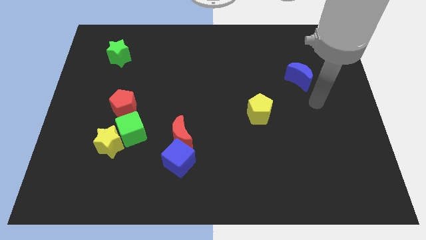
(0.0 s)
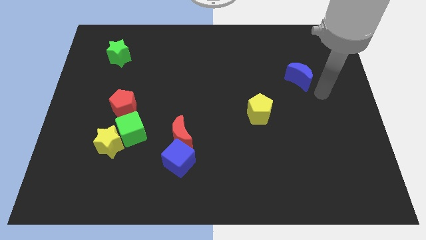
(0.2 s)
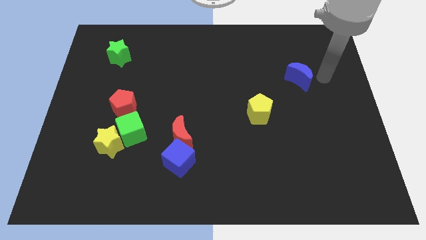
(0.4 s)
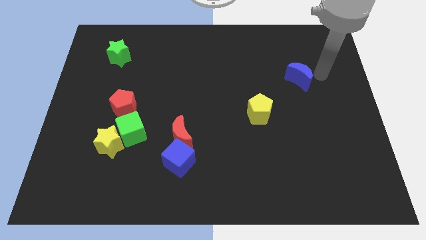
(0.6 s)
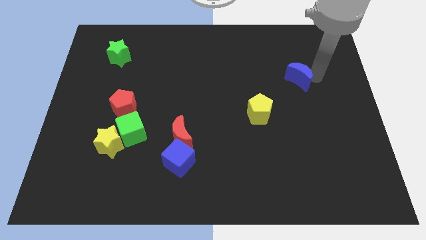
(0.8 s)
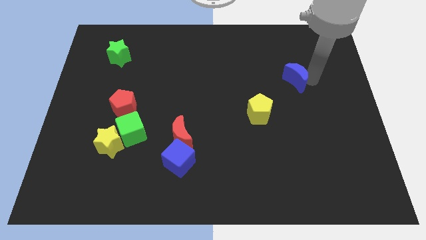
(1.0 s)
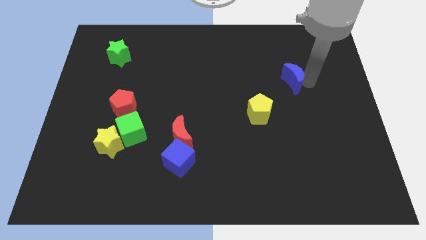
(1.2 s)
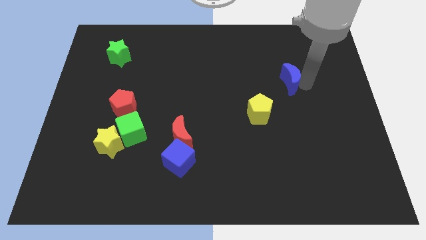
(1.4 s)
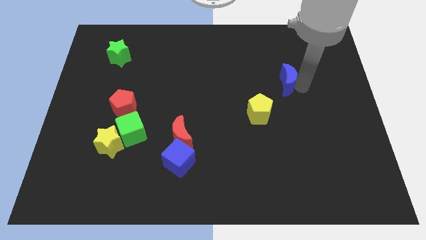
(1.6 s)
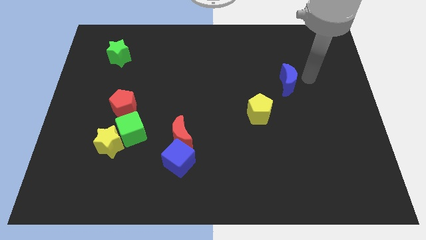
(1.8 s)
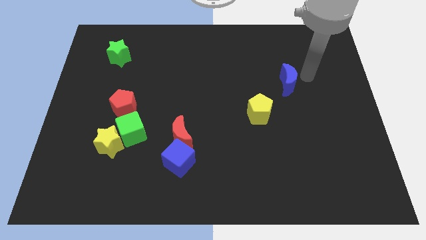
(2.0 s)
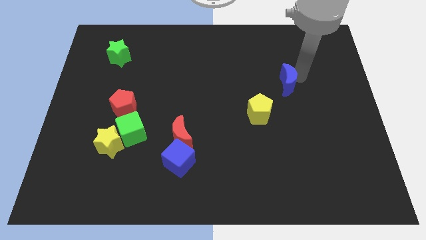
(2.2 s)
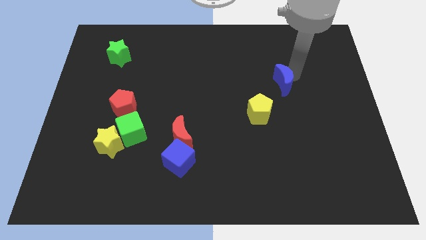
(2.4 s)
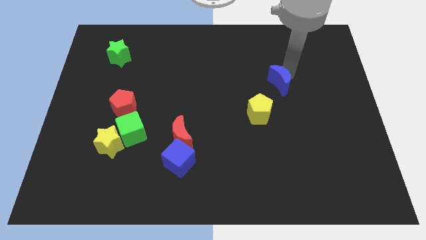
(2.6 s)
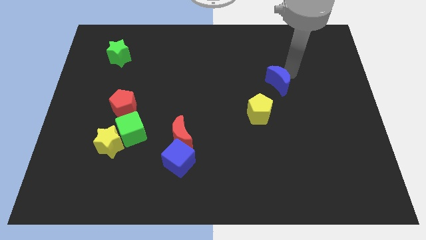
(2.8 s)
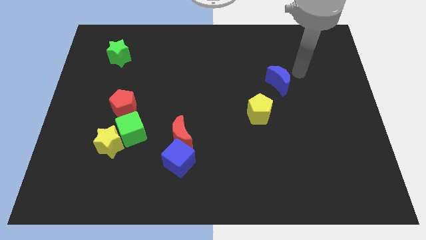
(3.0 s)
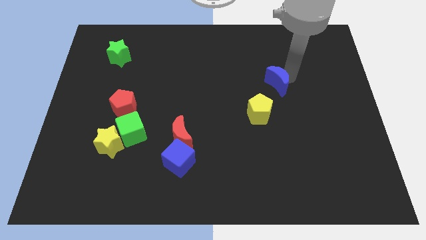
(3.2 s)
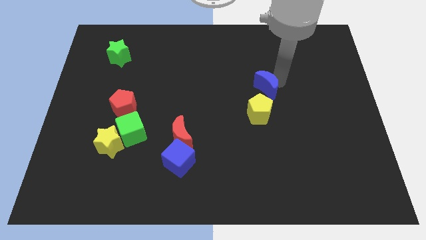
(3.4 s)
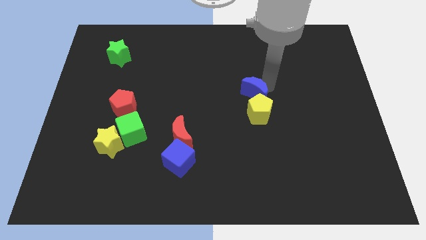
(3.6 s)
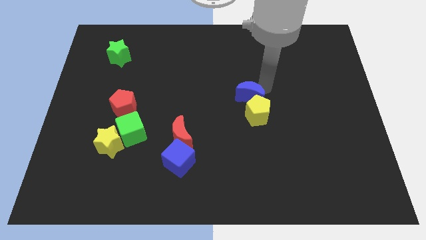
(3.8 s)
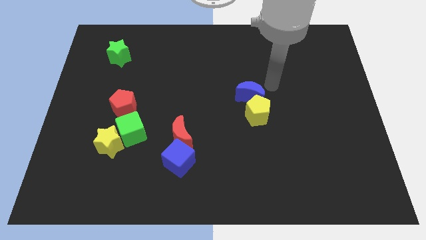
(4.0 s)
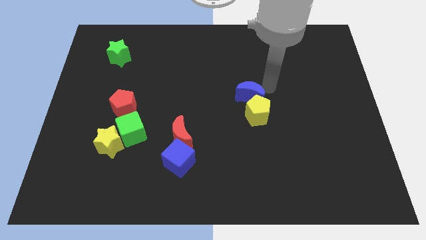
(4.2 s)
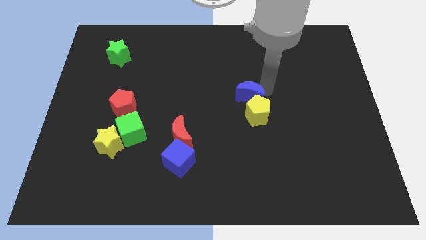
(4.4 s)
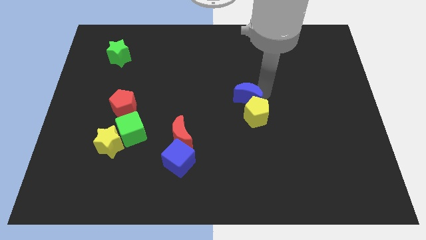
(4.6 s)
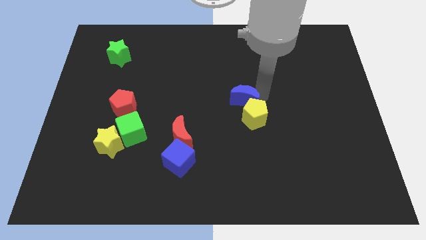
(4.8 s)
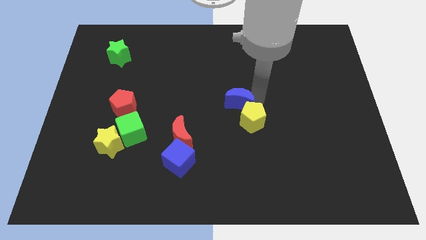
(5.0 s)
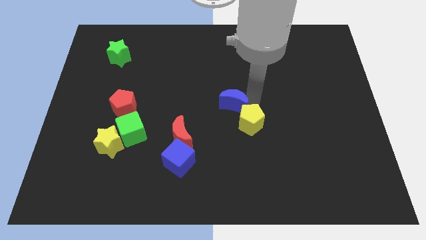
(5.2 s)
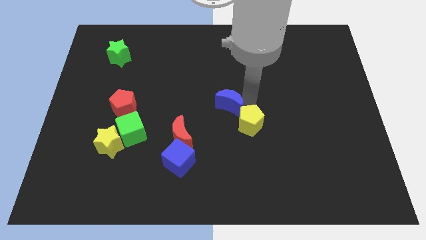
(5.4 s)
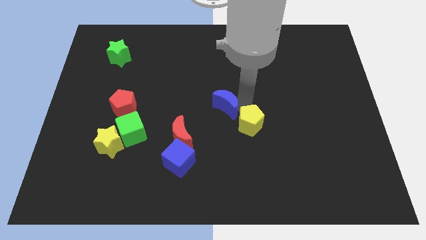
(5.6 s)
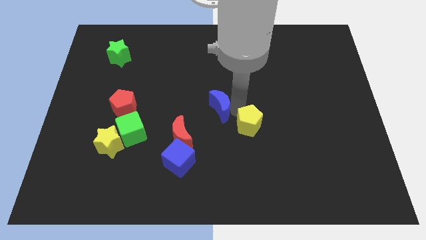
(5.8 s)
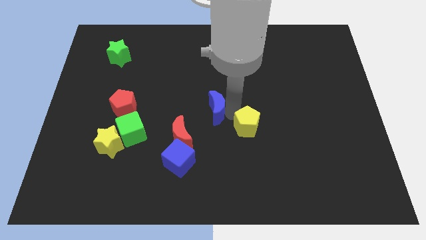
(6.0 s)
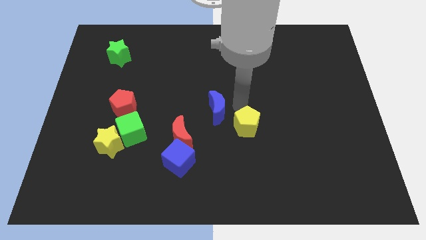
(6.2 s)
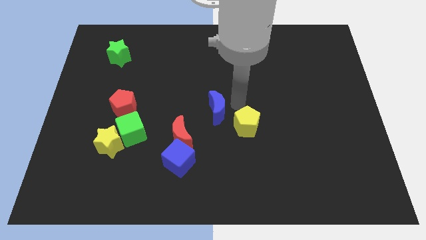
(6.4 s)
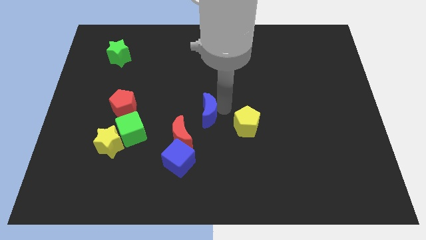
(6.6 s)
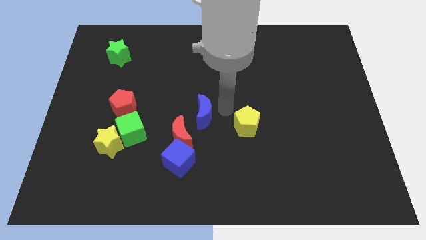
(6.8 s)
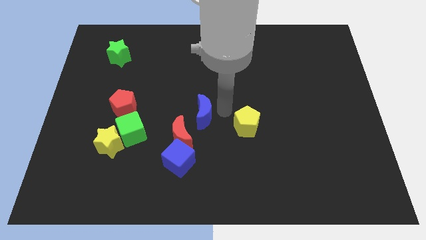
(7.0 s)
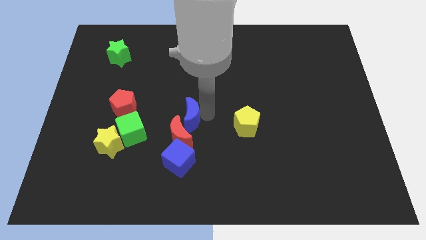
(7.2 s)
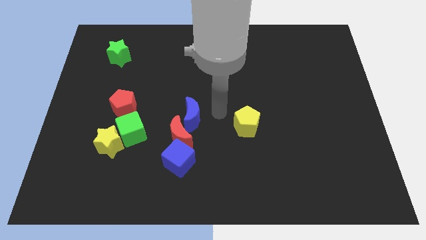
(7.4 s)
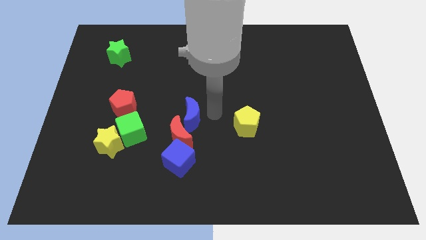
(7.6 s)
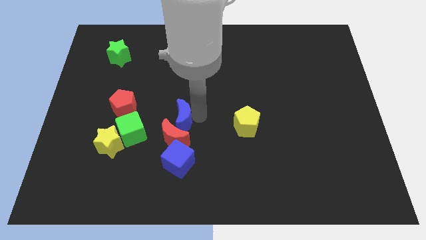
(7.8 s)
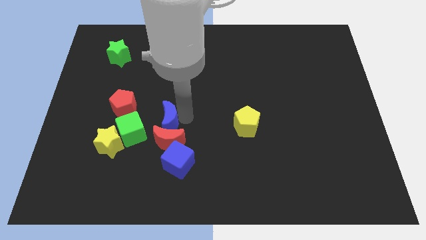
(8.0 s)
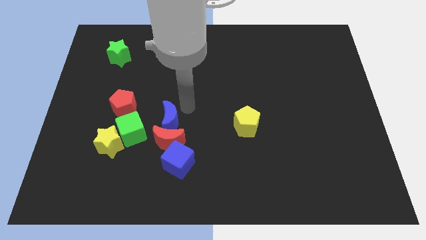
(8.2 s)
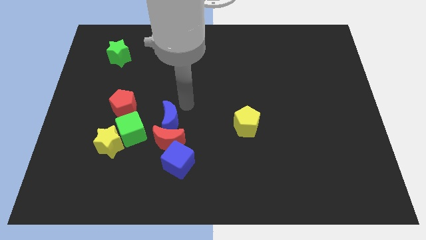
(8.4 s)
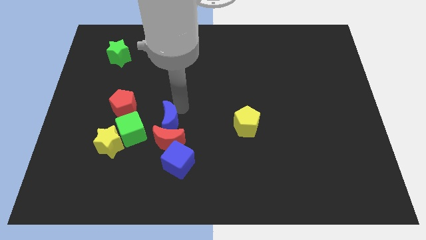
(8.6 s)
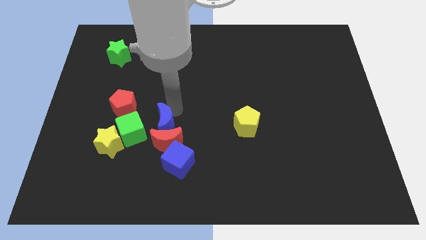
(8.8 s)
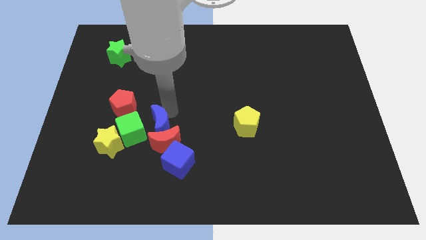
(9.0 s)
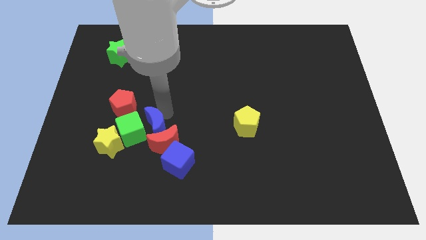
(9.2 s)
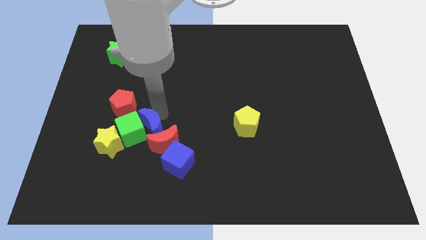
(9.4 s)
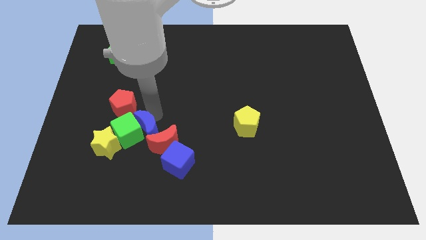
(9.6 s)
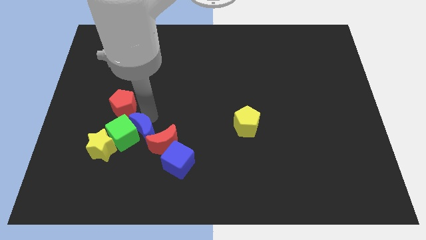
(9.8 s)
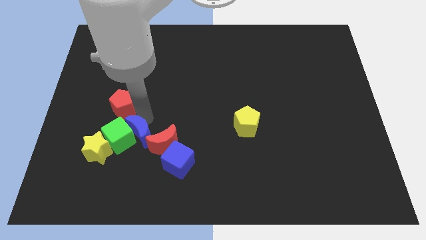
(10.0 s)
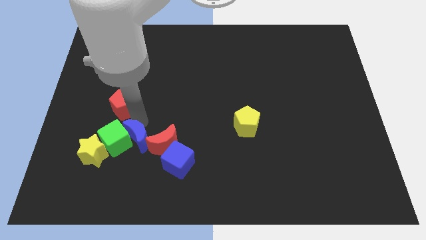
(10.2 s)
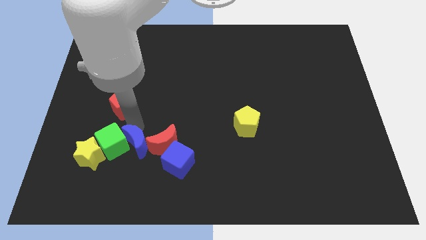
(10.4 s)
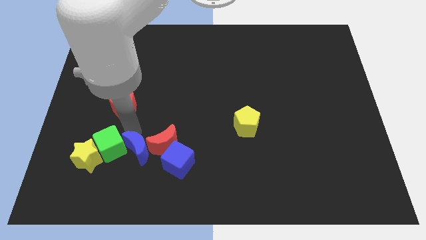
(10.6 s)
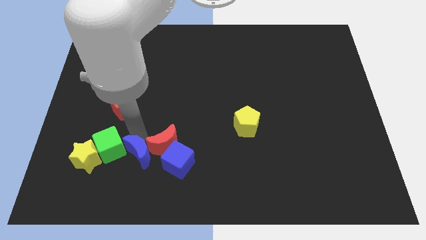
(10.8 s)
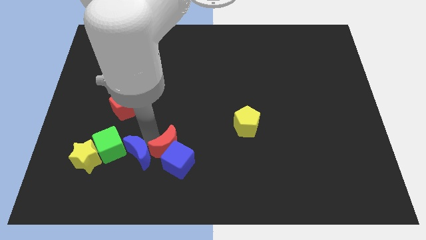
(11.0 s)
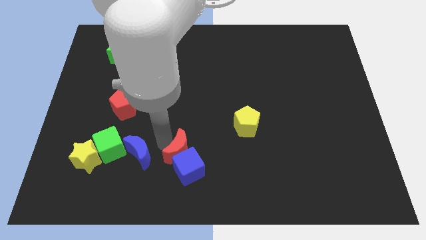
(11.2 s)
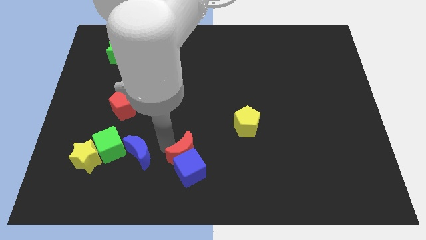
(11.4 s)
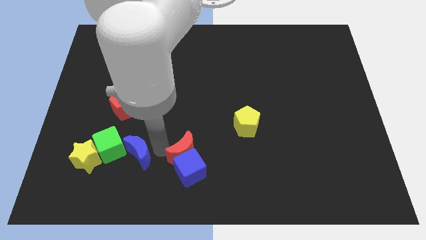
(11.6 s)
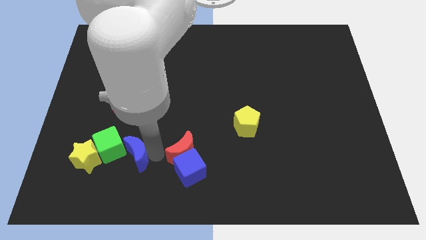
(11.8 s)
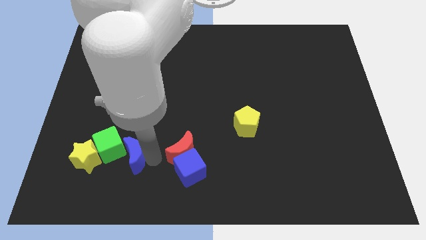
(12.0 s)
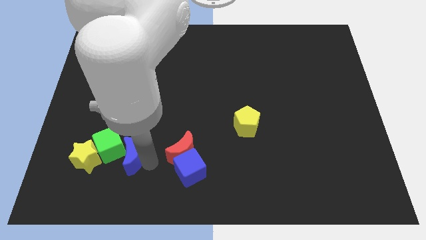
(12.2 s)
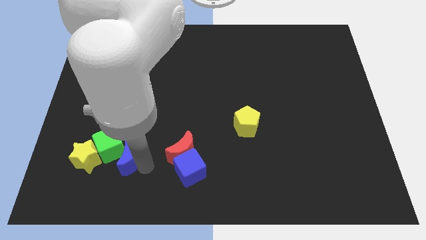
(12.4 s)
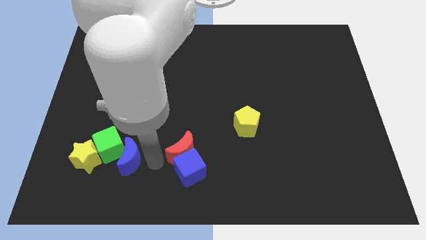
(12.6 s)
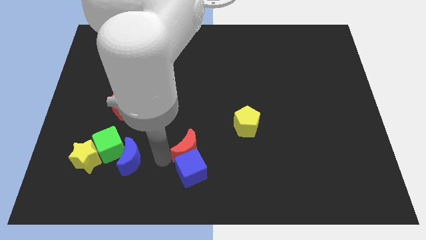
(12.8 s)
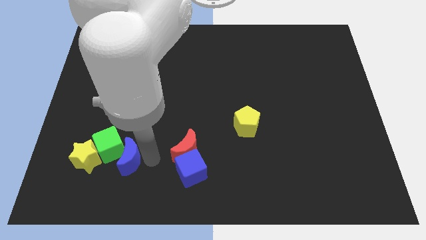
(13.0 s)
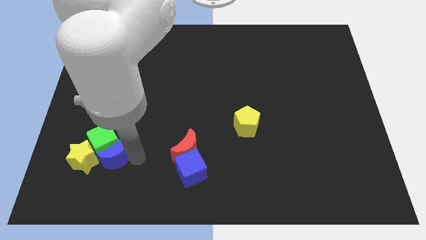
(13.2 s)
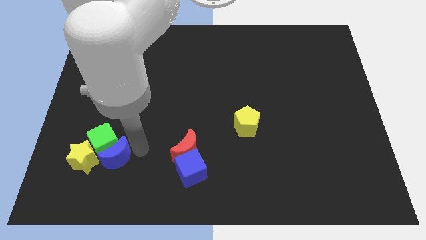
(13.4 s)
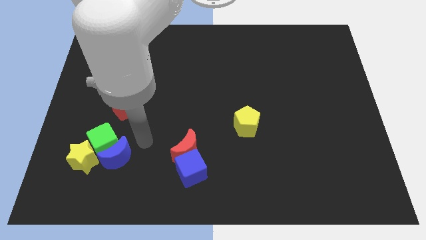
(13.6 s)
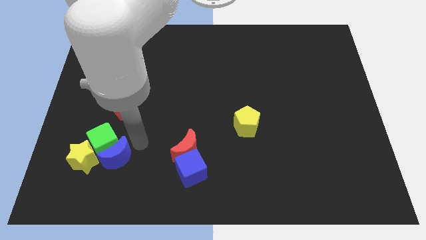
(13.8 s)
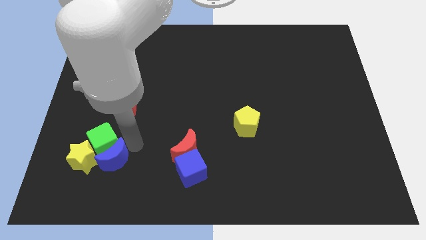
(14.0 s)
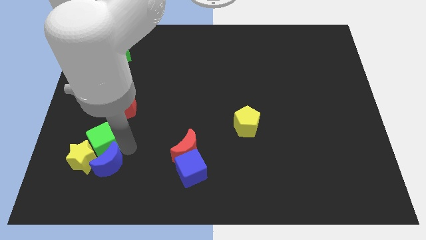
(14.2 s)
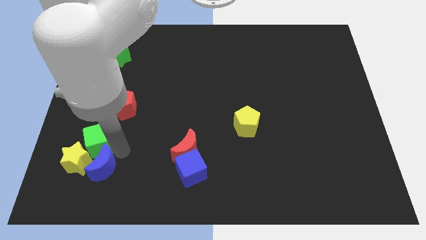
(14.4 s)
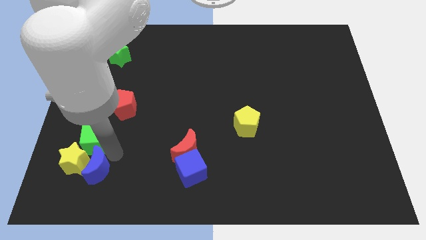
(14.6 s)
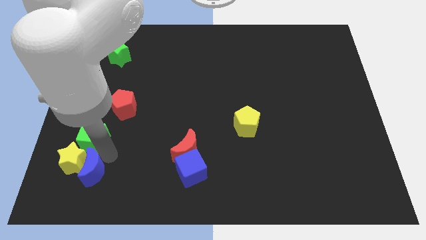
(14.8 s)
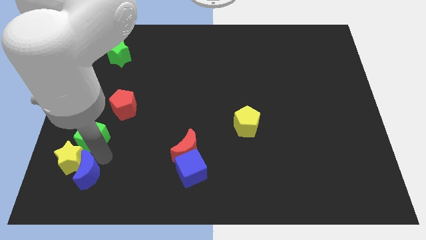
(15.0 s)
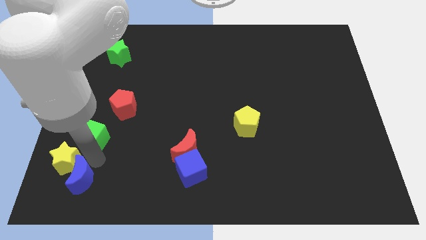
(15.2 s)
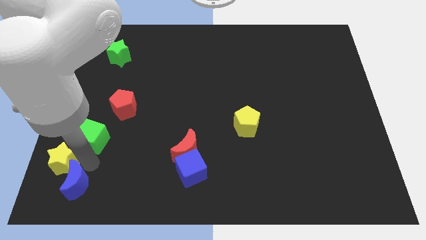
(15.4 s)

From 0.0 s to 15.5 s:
slide the blue moon to the bottom left corner
